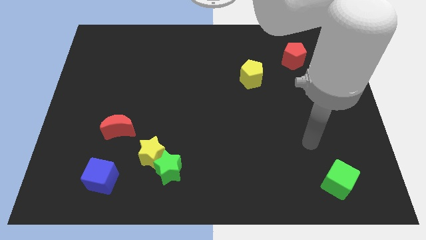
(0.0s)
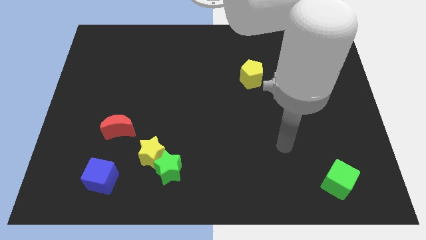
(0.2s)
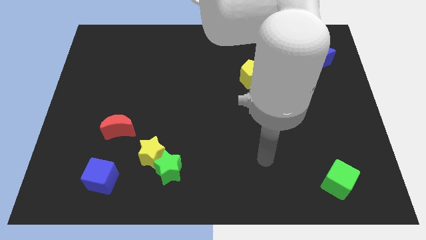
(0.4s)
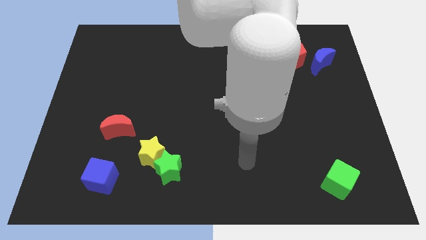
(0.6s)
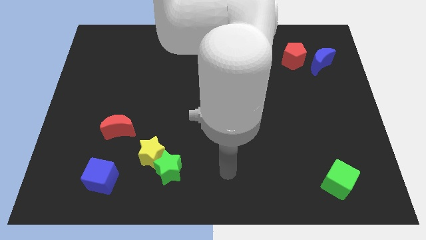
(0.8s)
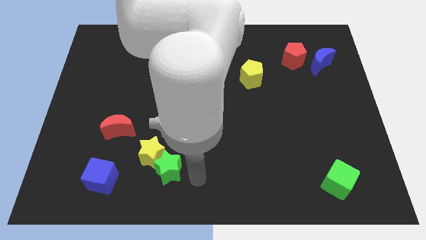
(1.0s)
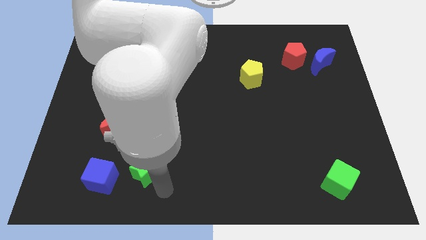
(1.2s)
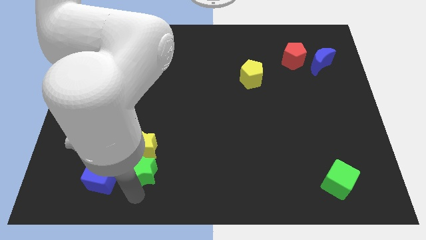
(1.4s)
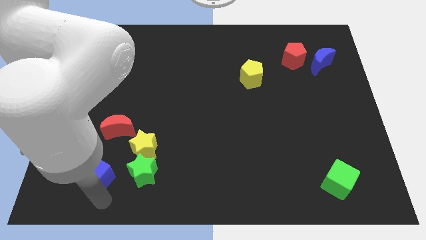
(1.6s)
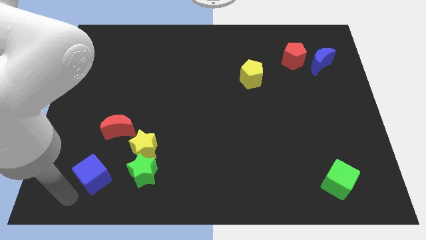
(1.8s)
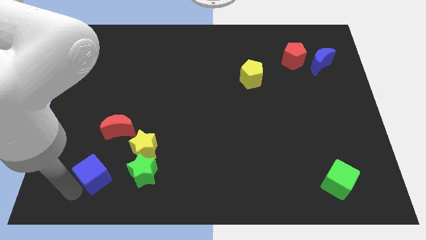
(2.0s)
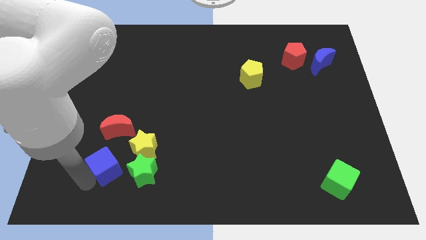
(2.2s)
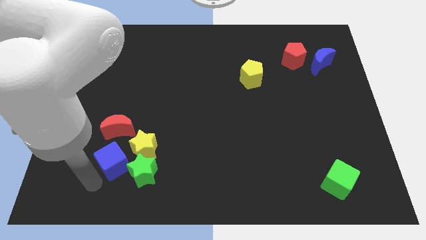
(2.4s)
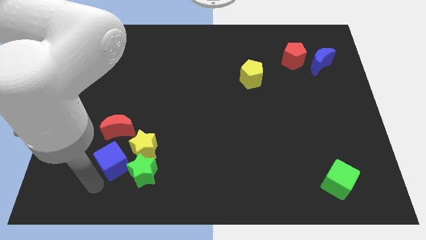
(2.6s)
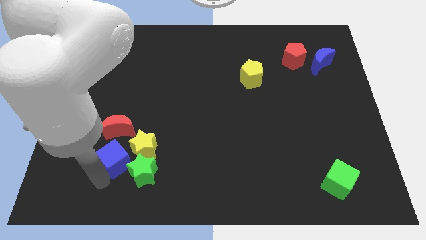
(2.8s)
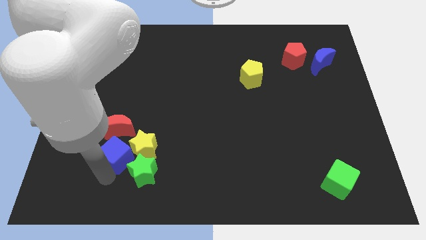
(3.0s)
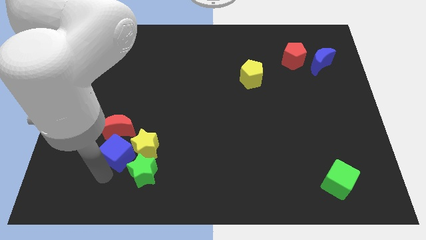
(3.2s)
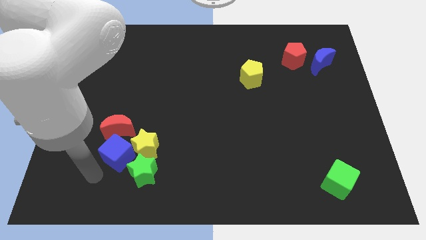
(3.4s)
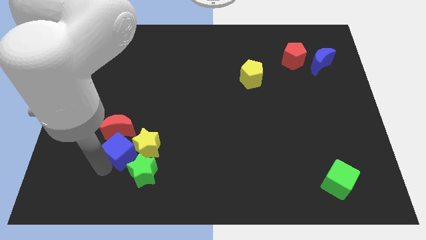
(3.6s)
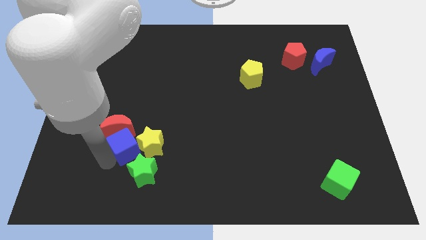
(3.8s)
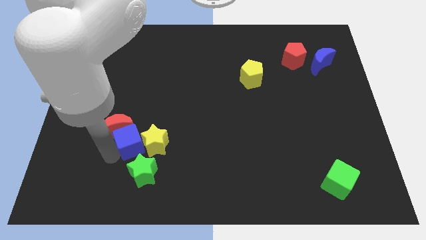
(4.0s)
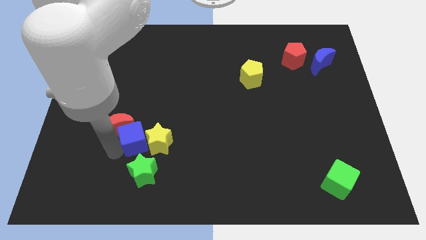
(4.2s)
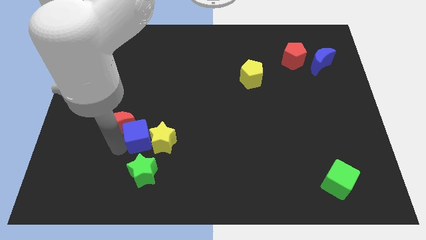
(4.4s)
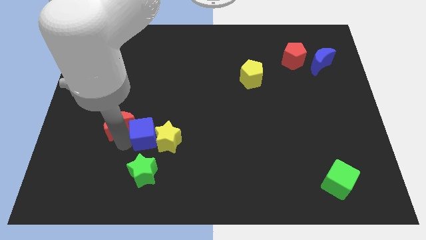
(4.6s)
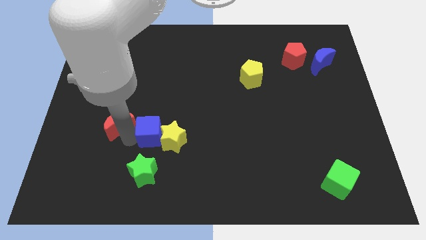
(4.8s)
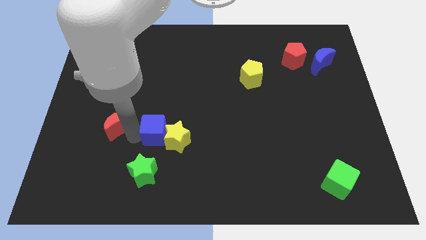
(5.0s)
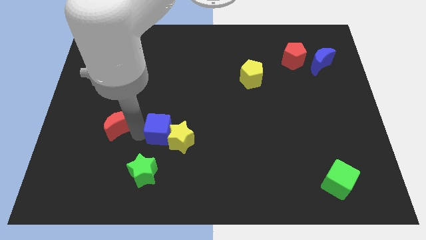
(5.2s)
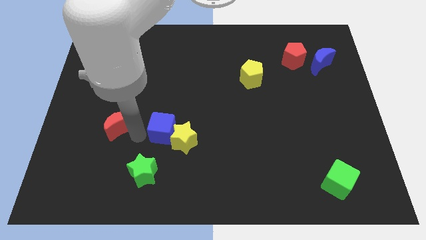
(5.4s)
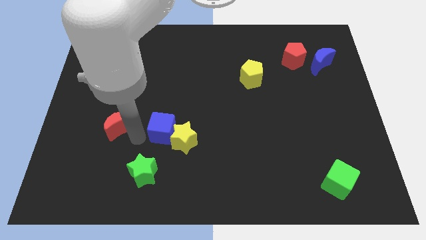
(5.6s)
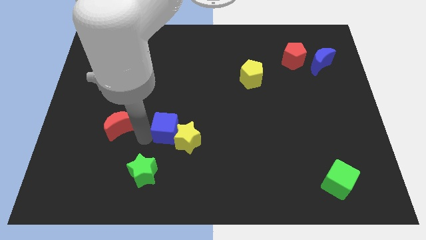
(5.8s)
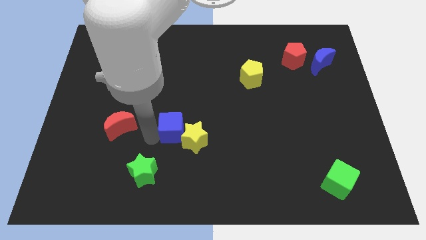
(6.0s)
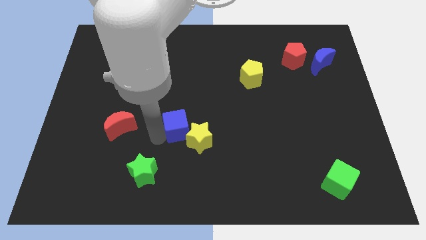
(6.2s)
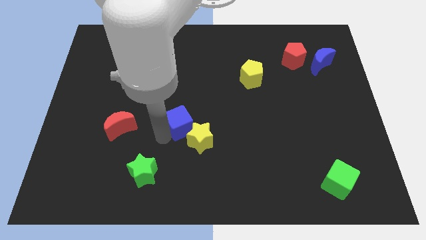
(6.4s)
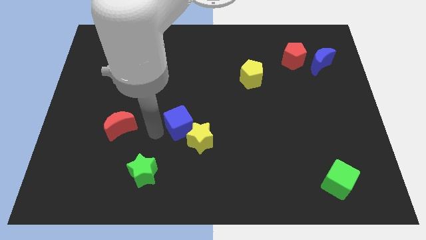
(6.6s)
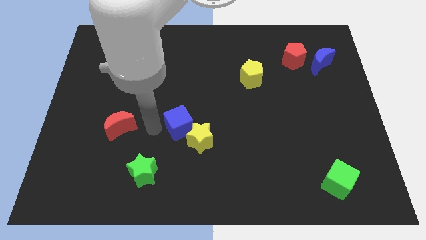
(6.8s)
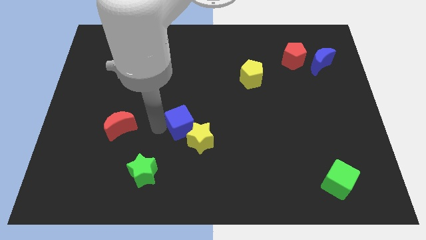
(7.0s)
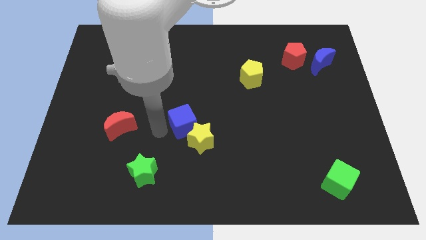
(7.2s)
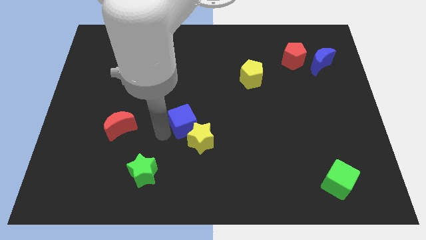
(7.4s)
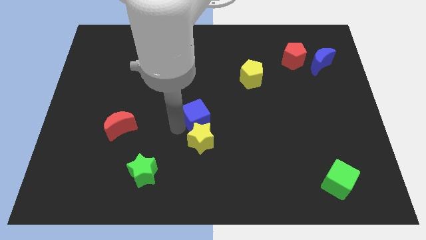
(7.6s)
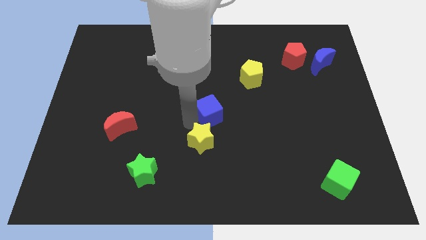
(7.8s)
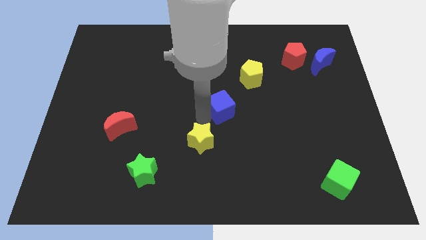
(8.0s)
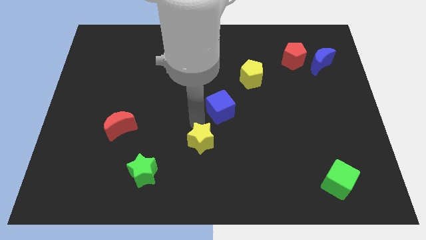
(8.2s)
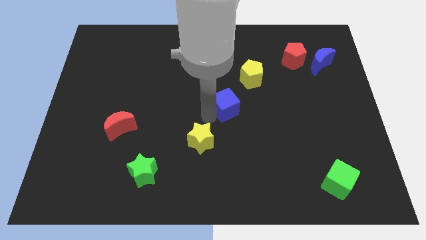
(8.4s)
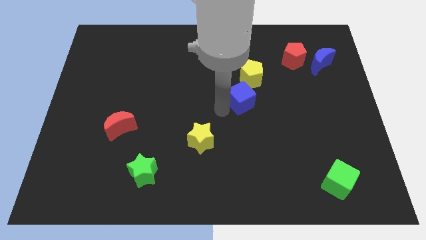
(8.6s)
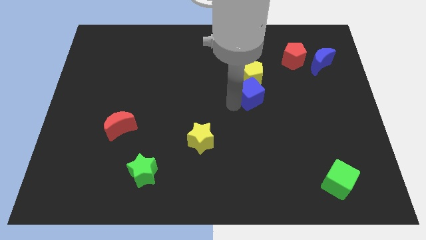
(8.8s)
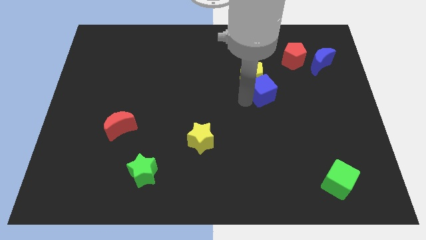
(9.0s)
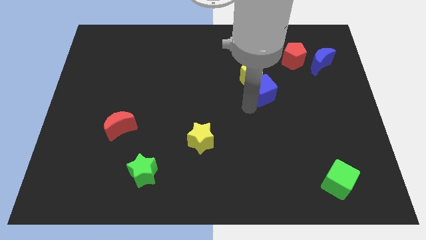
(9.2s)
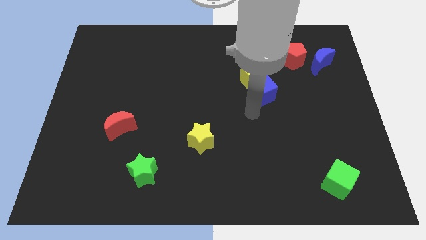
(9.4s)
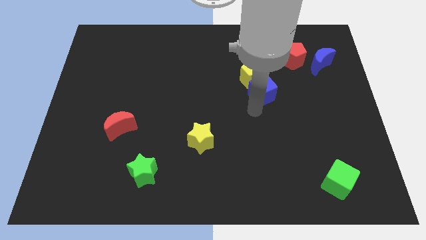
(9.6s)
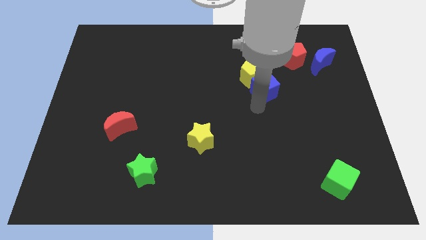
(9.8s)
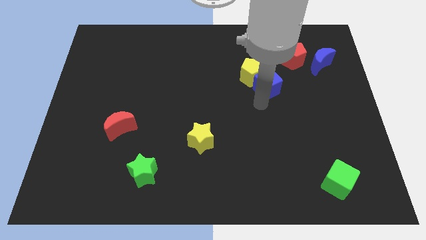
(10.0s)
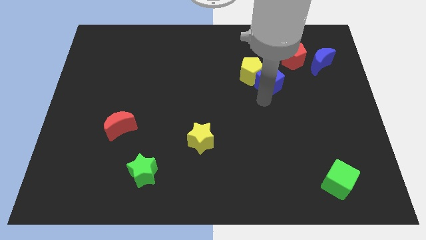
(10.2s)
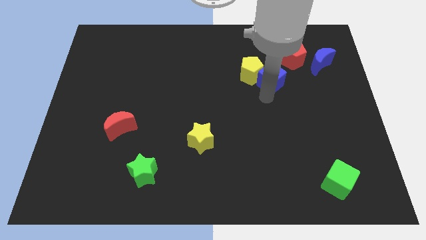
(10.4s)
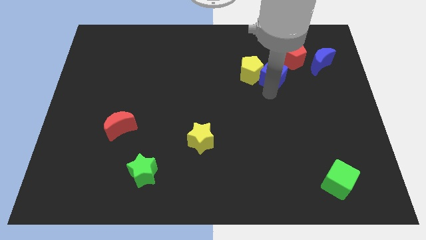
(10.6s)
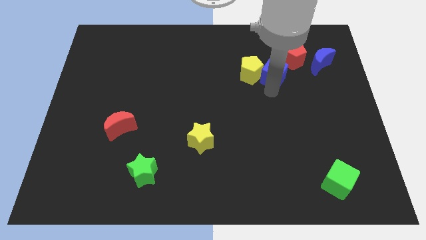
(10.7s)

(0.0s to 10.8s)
put the blue cube just left of the blue moon
